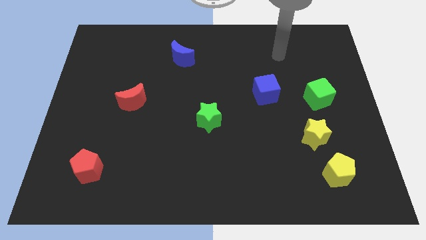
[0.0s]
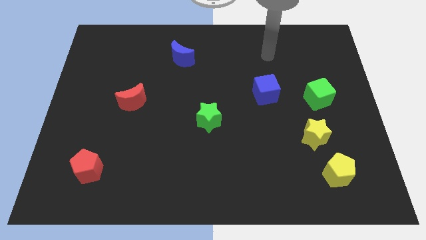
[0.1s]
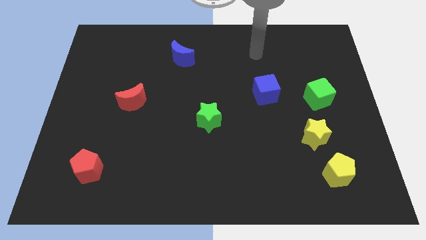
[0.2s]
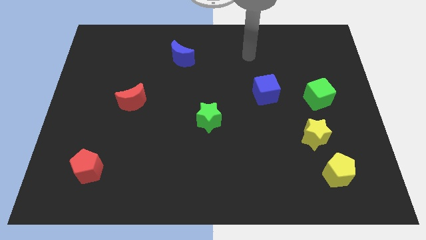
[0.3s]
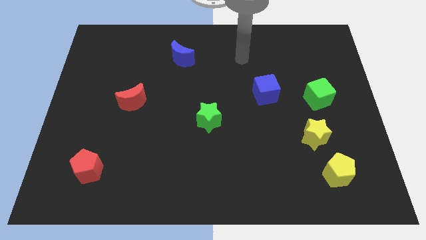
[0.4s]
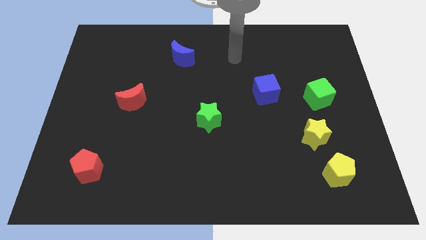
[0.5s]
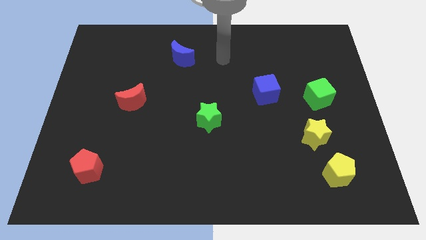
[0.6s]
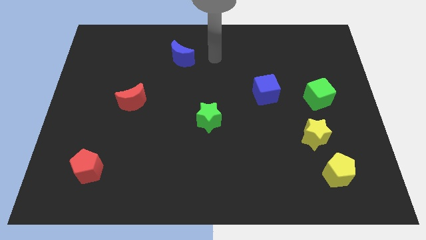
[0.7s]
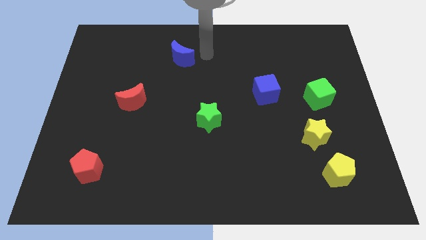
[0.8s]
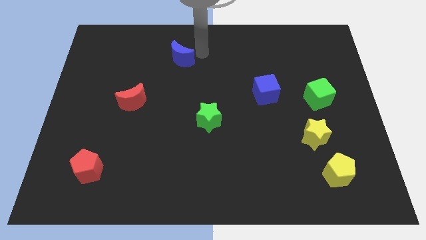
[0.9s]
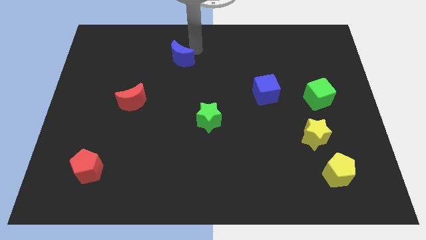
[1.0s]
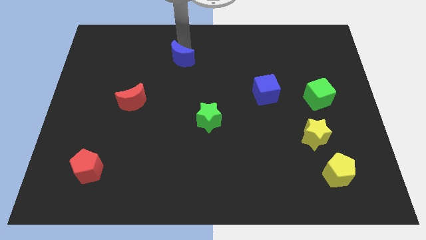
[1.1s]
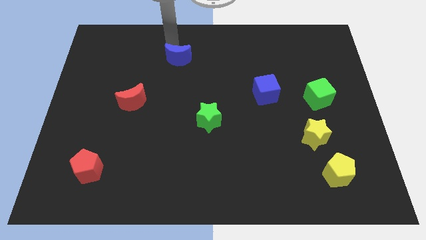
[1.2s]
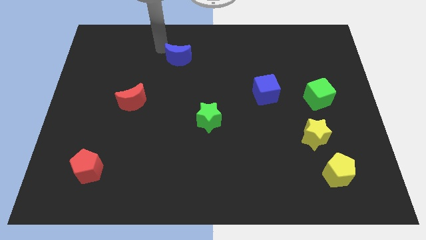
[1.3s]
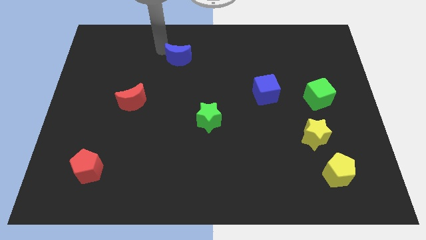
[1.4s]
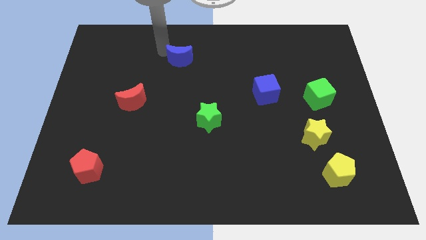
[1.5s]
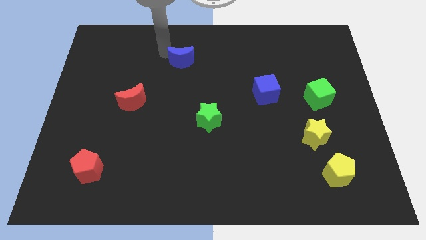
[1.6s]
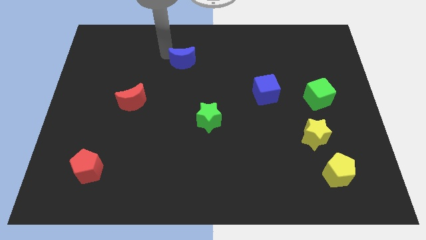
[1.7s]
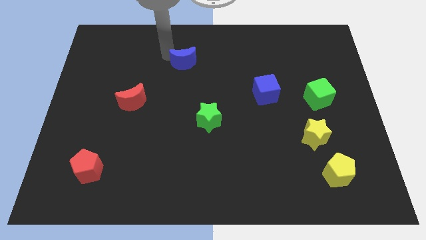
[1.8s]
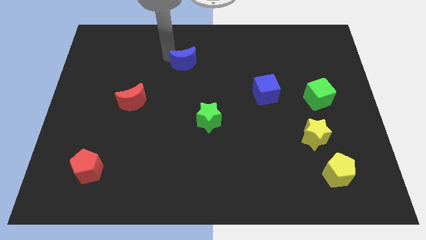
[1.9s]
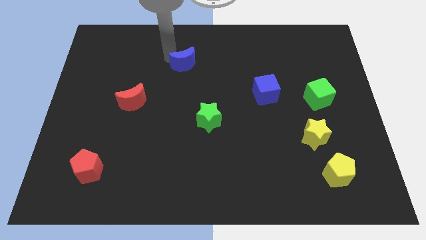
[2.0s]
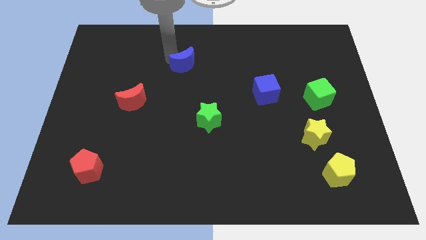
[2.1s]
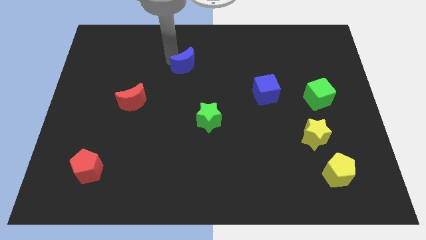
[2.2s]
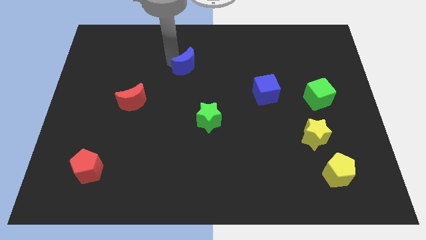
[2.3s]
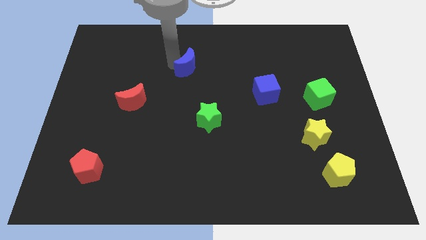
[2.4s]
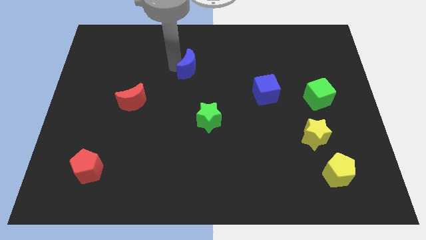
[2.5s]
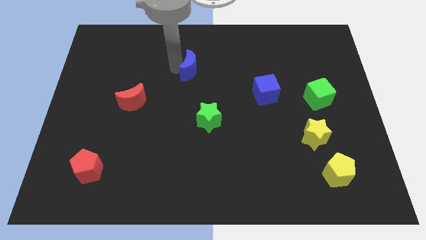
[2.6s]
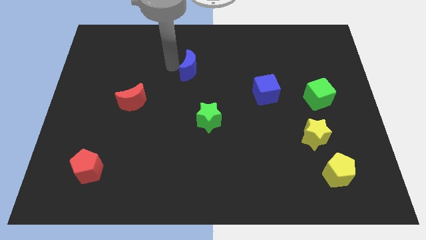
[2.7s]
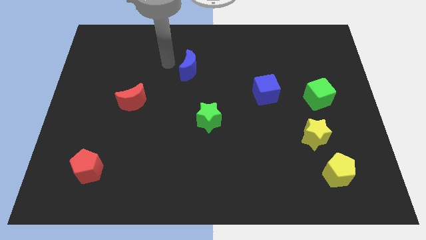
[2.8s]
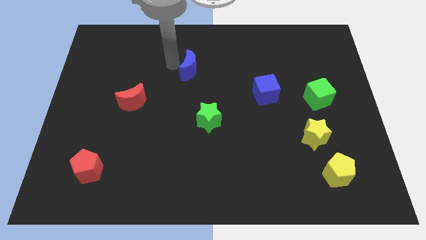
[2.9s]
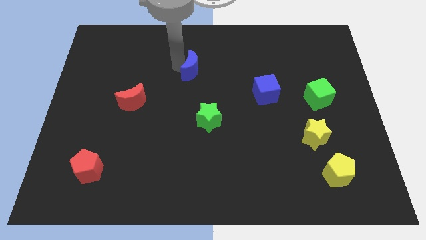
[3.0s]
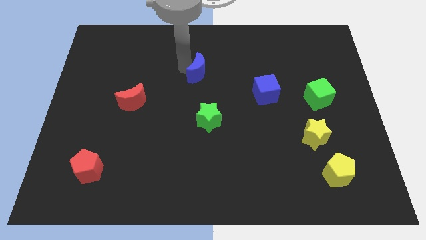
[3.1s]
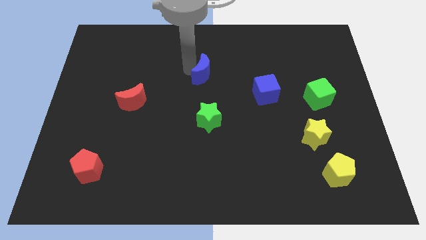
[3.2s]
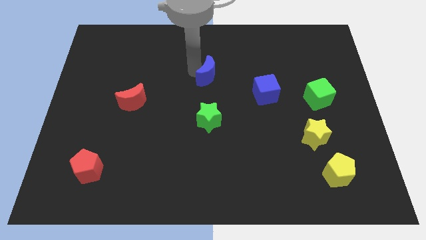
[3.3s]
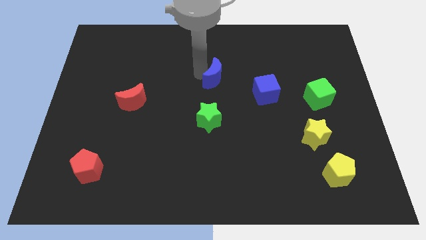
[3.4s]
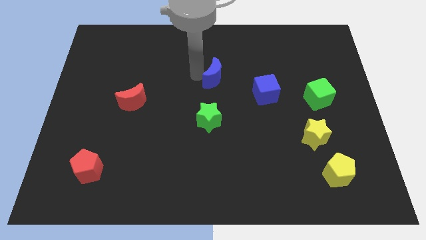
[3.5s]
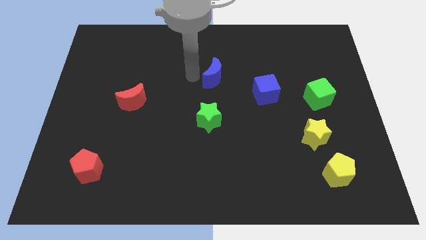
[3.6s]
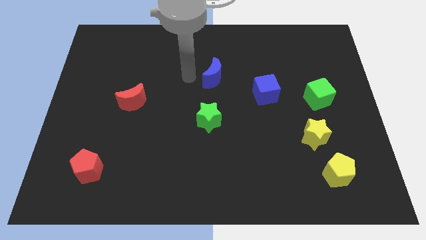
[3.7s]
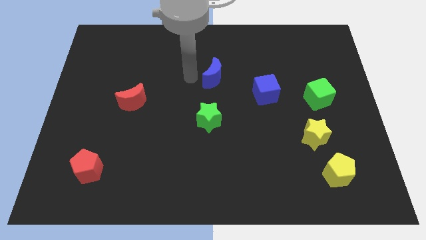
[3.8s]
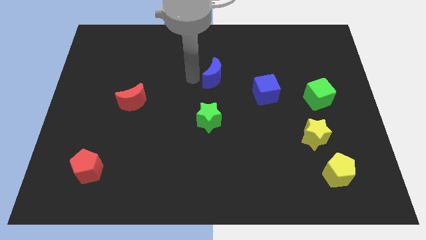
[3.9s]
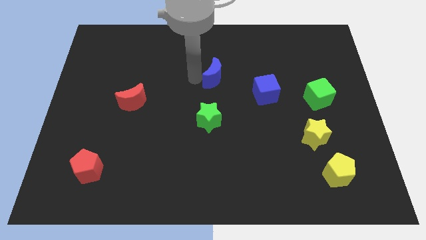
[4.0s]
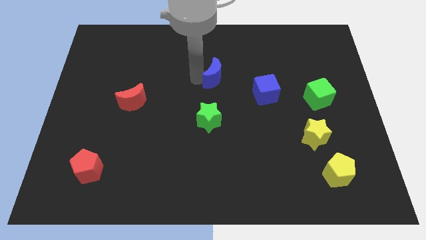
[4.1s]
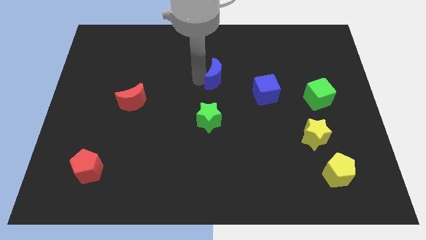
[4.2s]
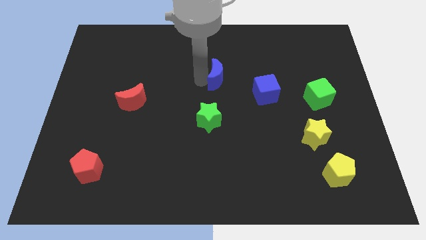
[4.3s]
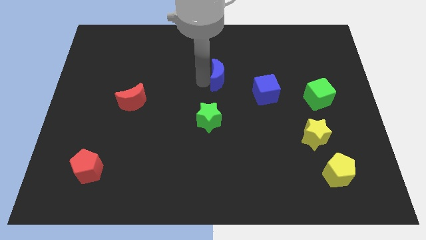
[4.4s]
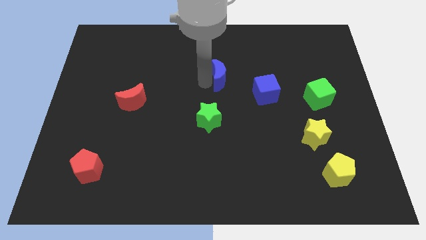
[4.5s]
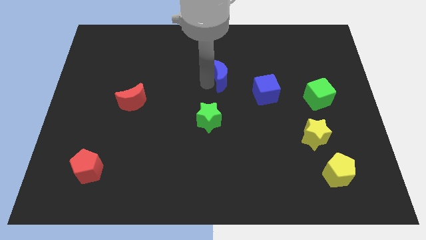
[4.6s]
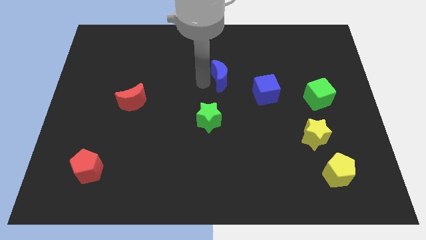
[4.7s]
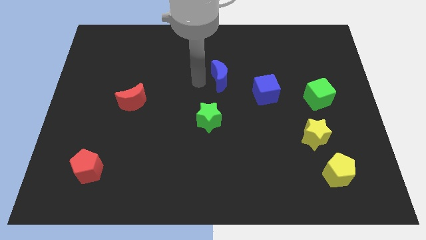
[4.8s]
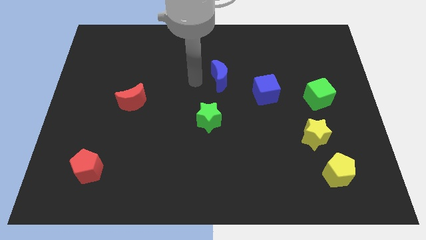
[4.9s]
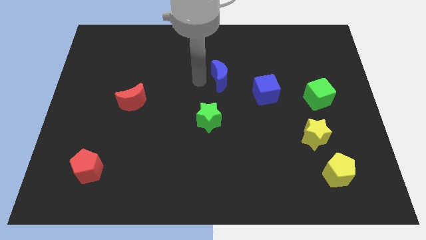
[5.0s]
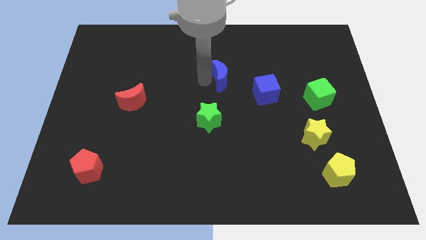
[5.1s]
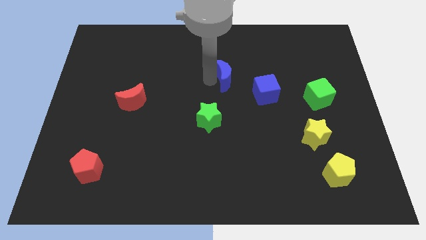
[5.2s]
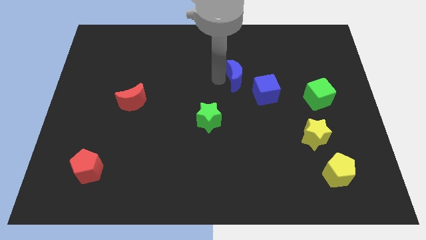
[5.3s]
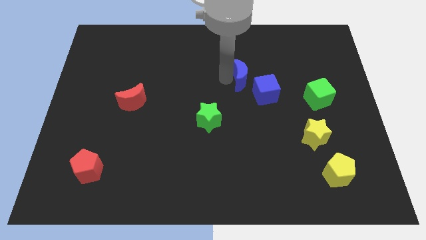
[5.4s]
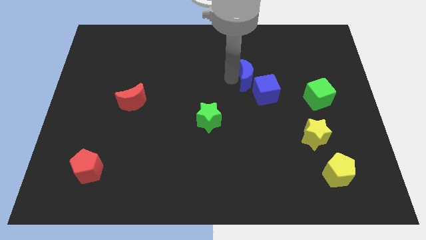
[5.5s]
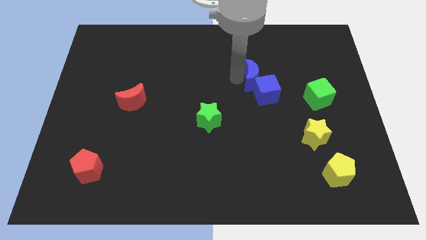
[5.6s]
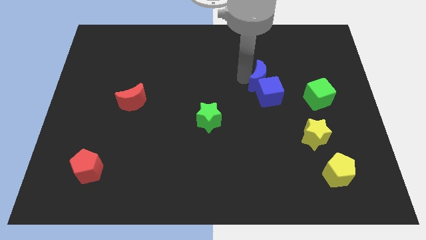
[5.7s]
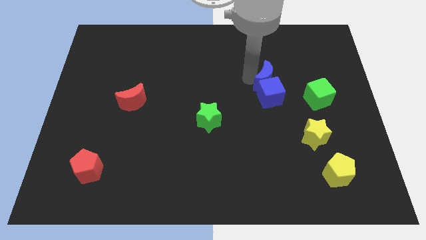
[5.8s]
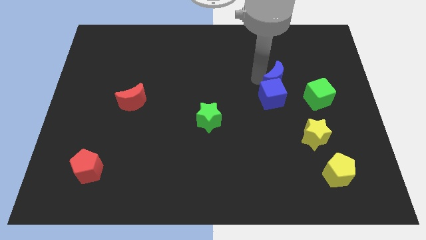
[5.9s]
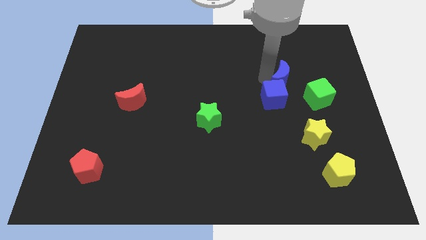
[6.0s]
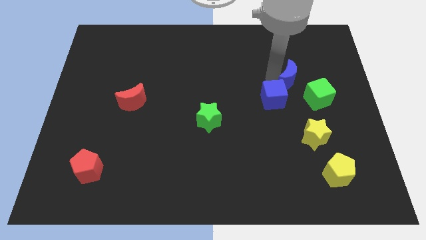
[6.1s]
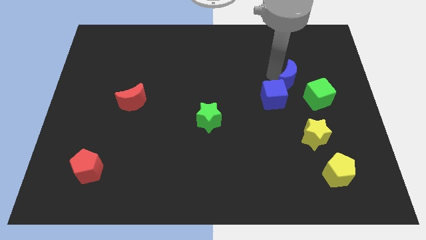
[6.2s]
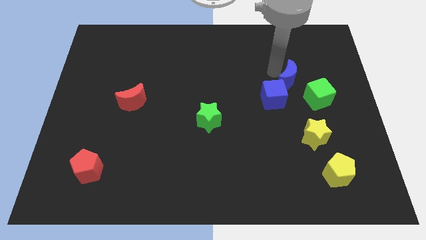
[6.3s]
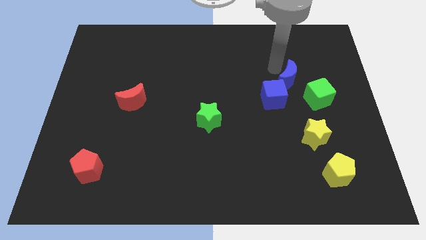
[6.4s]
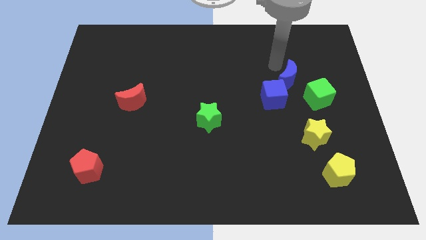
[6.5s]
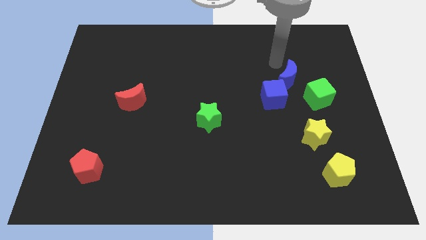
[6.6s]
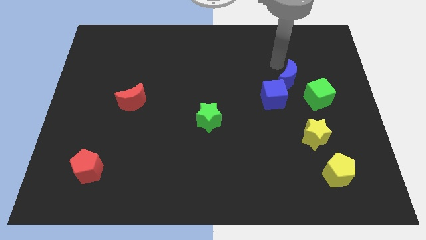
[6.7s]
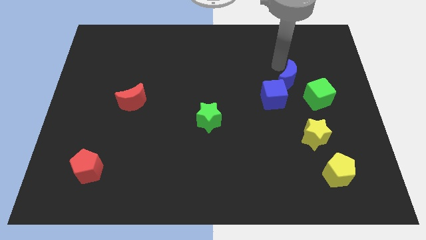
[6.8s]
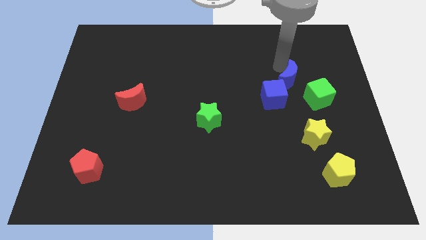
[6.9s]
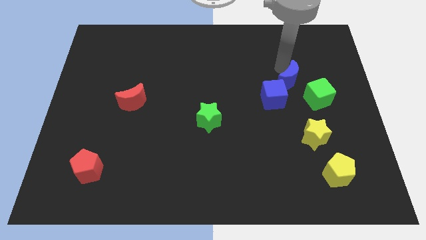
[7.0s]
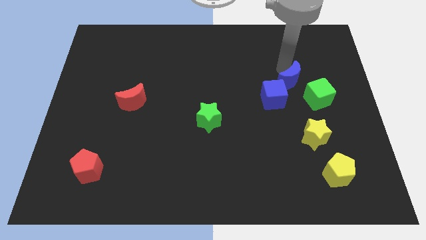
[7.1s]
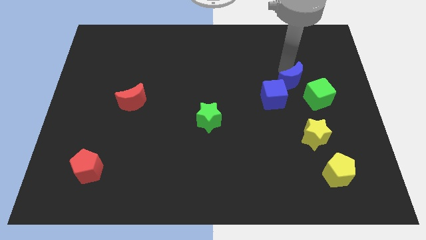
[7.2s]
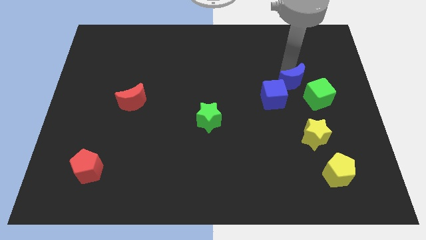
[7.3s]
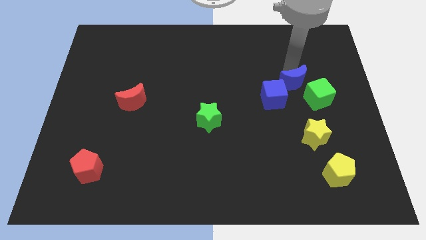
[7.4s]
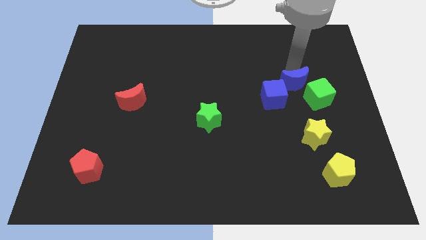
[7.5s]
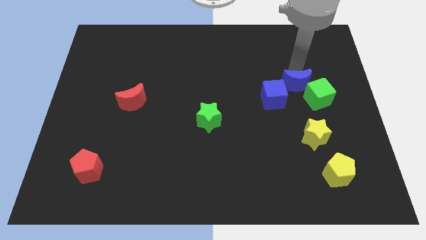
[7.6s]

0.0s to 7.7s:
slide the blue moon next to the green cube
